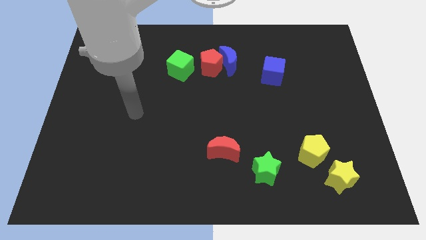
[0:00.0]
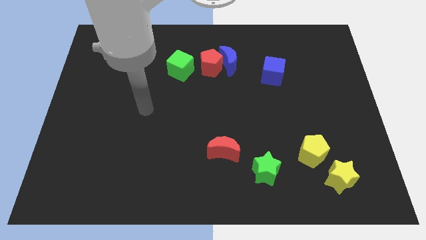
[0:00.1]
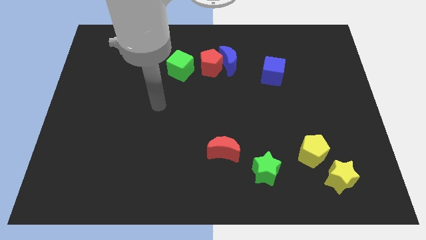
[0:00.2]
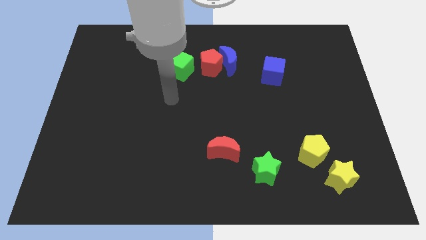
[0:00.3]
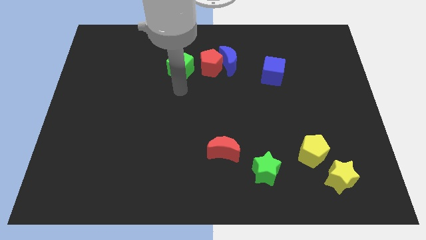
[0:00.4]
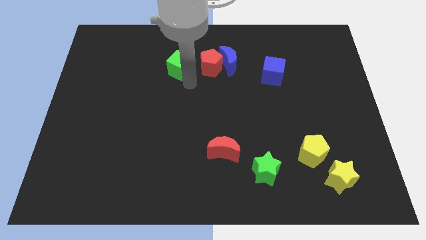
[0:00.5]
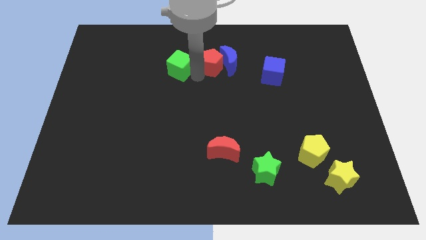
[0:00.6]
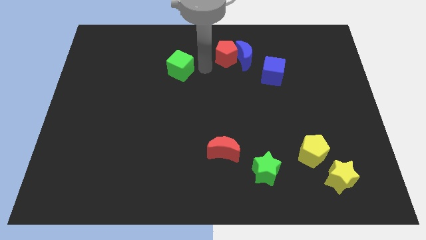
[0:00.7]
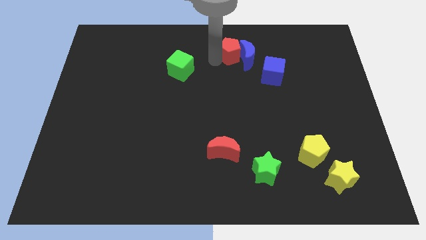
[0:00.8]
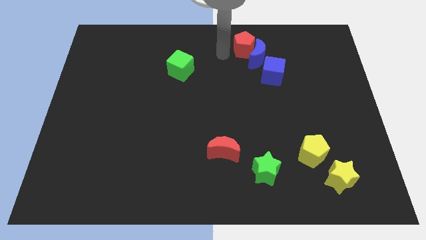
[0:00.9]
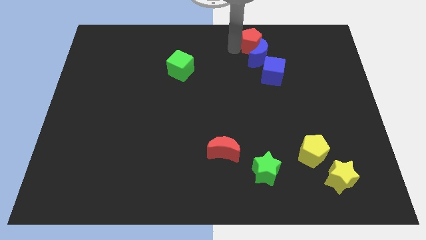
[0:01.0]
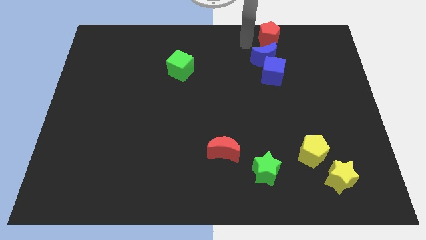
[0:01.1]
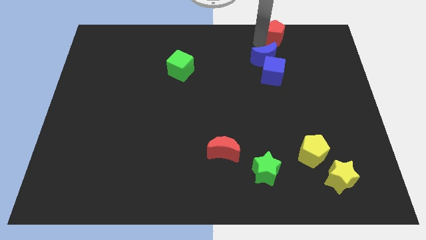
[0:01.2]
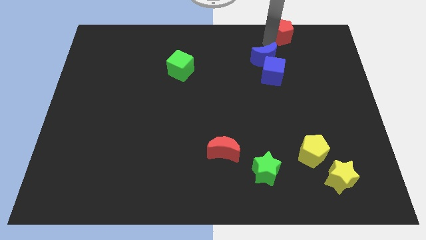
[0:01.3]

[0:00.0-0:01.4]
pull the blue moon apart from the red pentagon

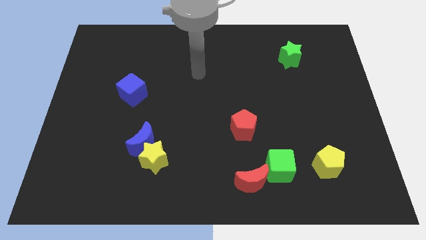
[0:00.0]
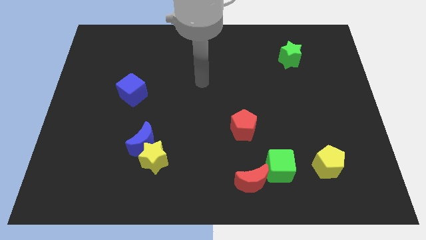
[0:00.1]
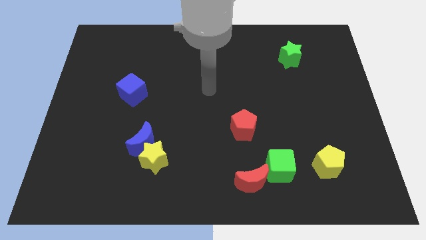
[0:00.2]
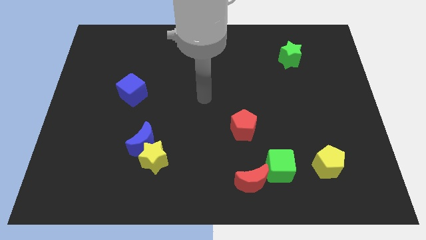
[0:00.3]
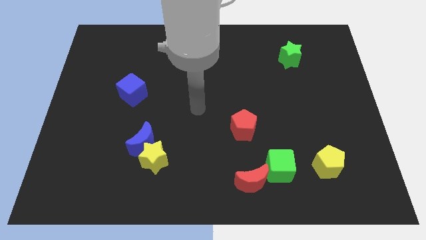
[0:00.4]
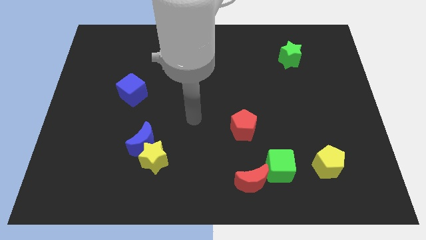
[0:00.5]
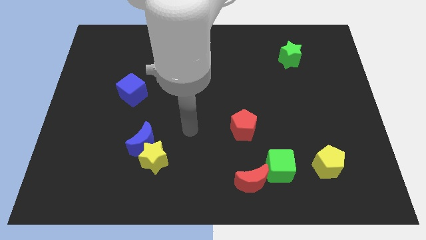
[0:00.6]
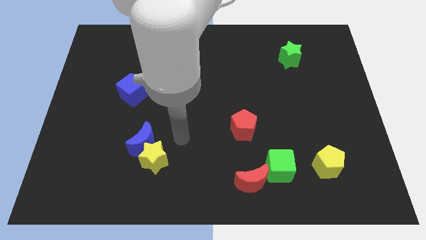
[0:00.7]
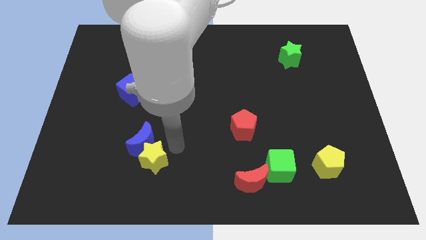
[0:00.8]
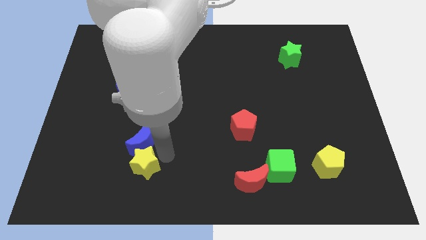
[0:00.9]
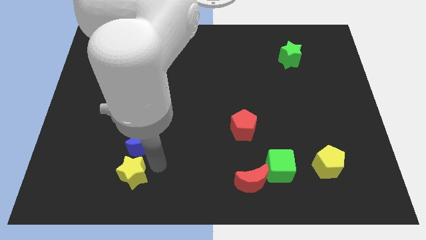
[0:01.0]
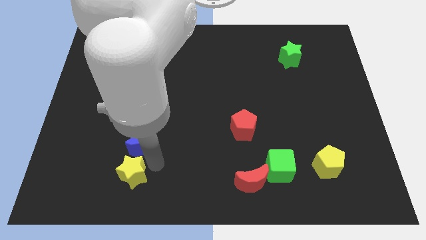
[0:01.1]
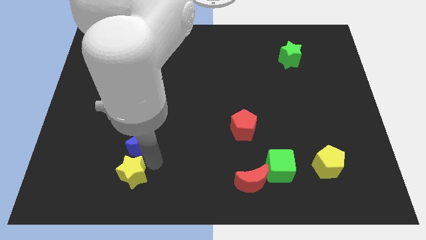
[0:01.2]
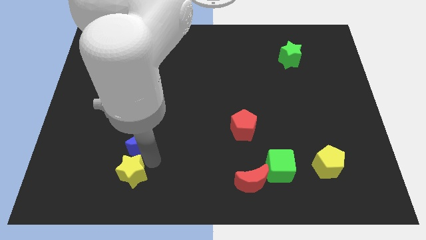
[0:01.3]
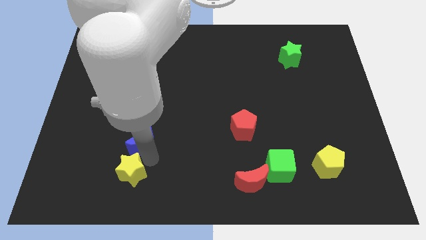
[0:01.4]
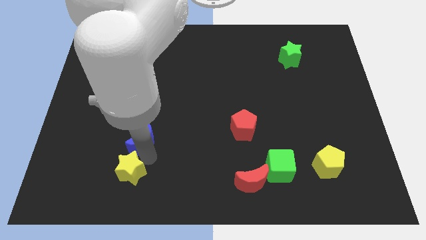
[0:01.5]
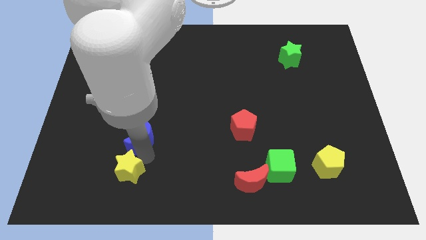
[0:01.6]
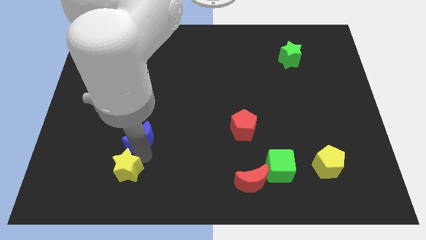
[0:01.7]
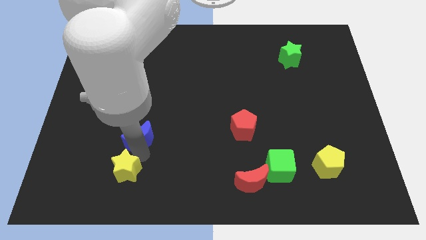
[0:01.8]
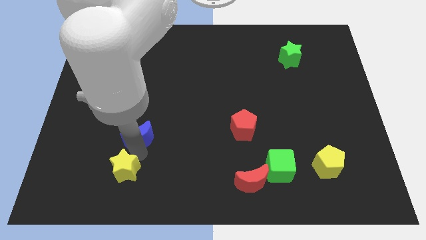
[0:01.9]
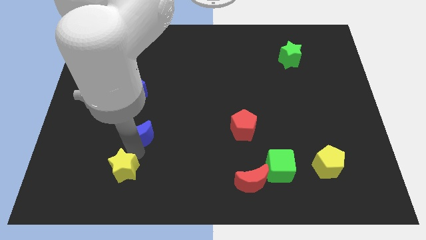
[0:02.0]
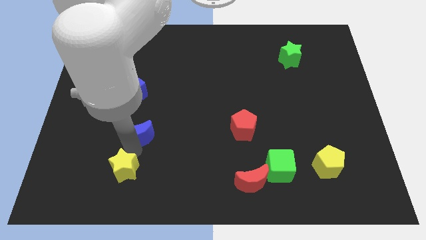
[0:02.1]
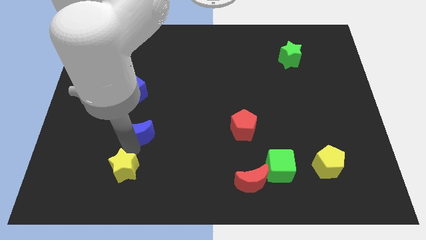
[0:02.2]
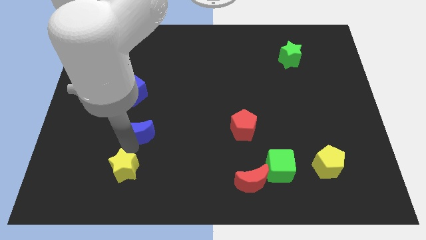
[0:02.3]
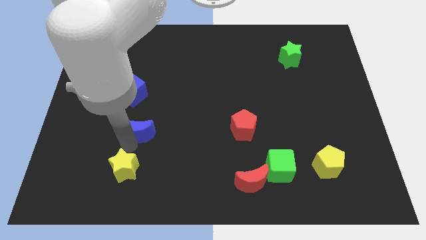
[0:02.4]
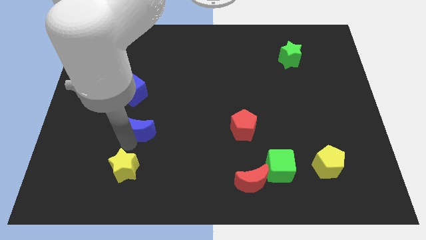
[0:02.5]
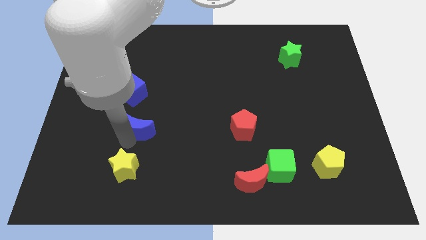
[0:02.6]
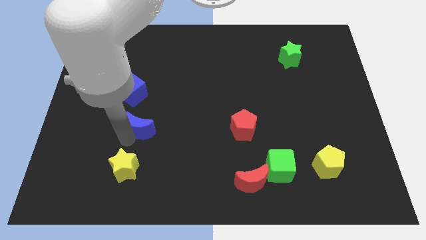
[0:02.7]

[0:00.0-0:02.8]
separate the blue moon from the yellow star

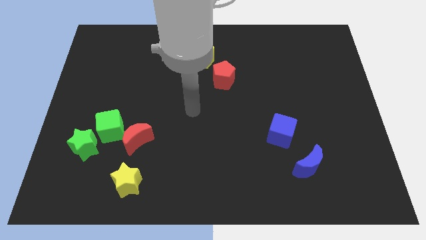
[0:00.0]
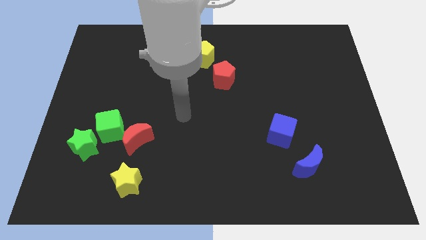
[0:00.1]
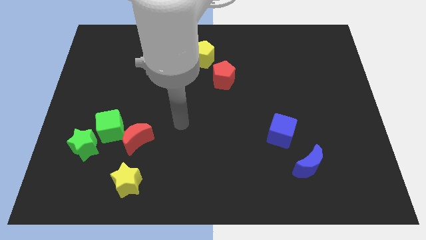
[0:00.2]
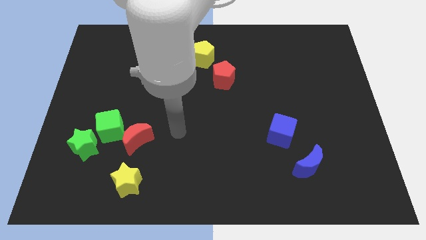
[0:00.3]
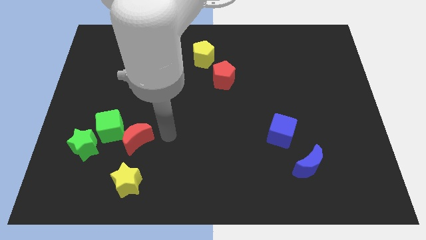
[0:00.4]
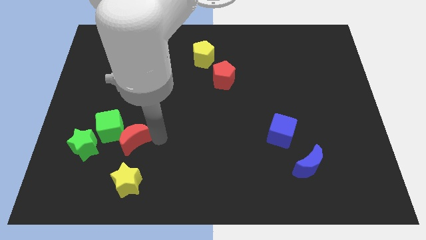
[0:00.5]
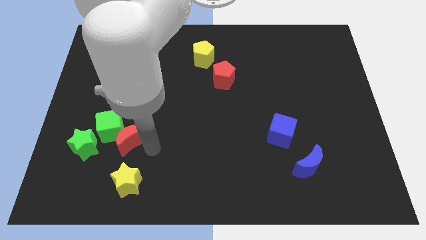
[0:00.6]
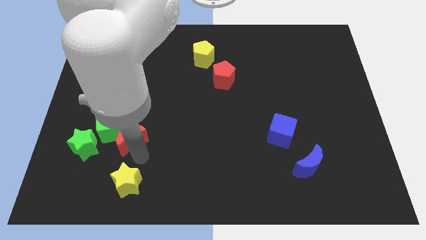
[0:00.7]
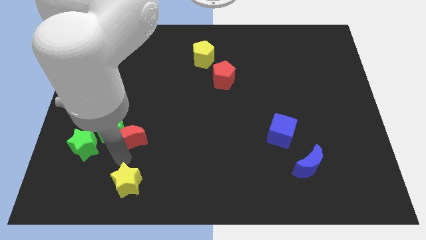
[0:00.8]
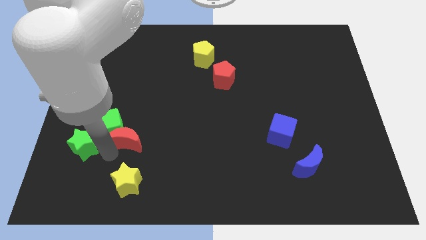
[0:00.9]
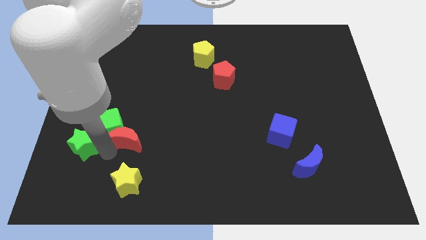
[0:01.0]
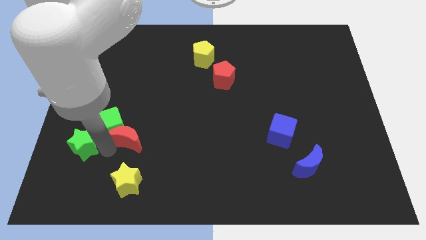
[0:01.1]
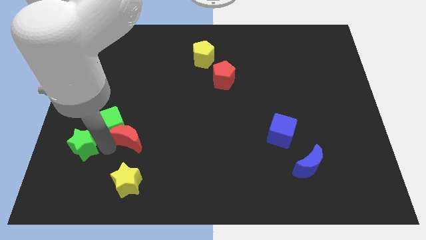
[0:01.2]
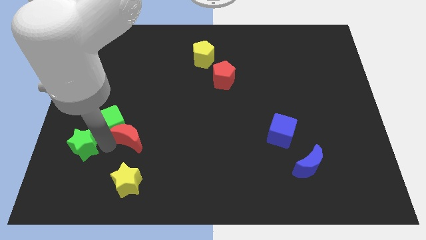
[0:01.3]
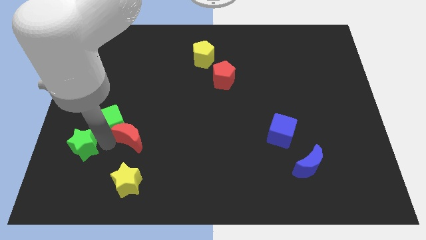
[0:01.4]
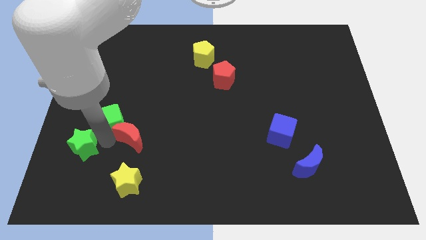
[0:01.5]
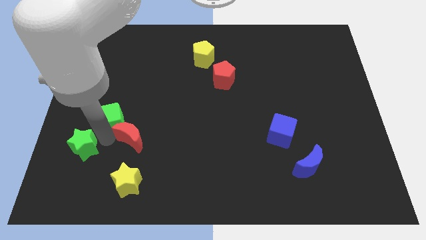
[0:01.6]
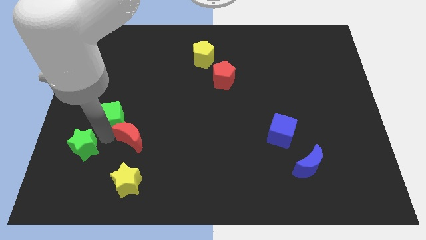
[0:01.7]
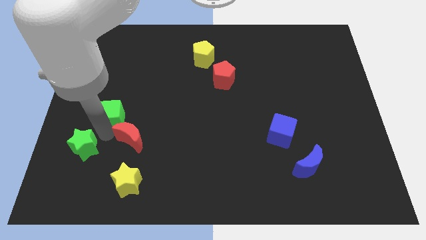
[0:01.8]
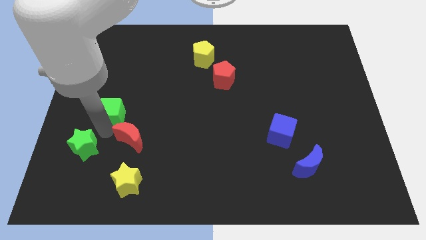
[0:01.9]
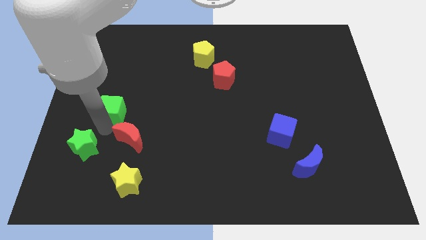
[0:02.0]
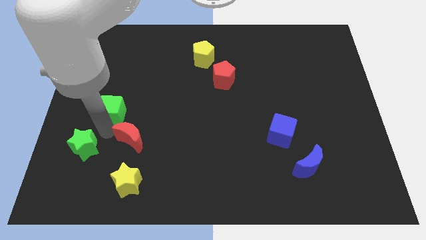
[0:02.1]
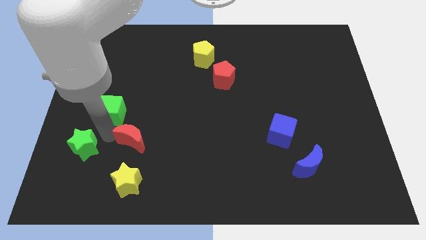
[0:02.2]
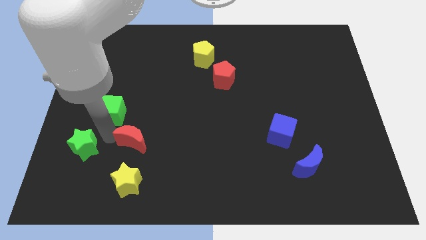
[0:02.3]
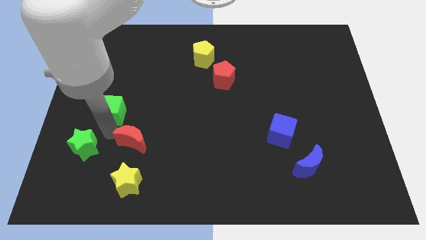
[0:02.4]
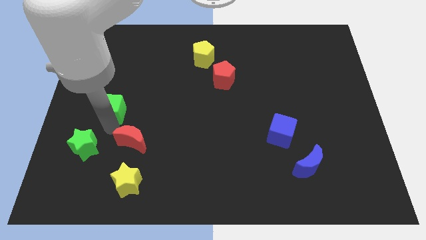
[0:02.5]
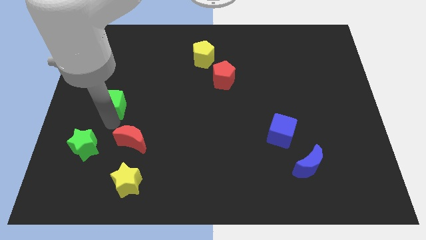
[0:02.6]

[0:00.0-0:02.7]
separate the green cube from the red moon and green star

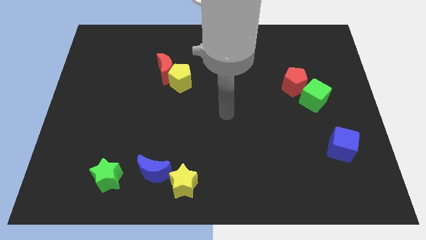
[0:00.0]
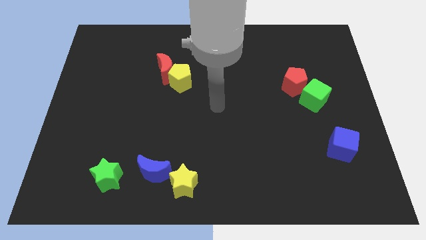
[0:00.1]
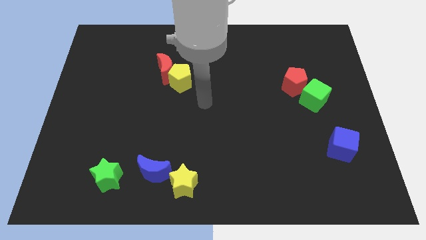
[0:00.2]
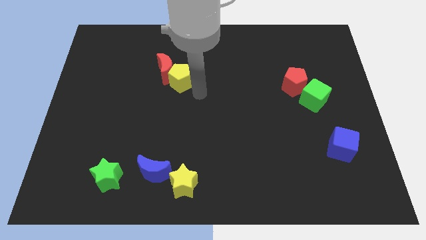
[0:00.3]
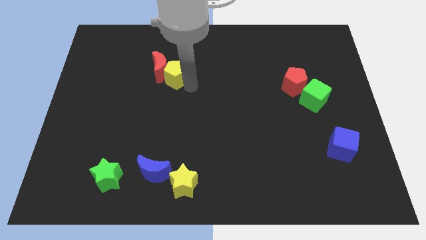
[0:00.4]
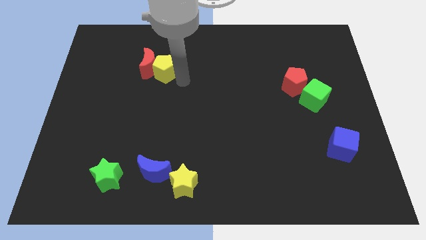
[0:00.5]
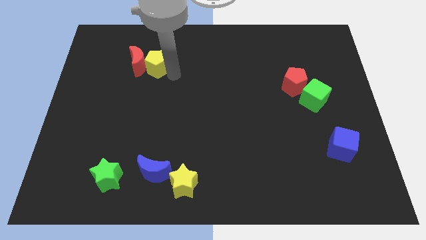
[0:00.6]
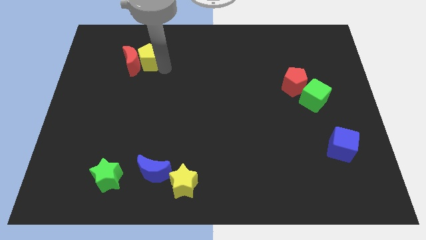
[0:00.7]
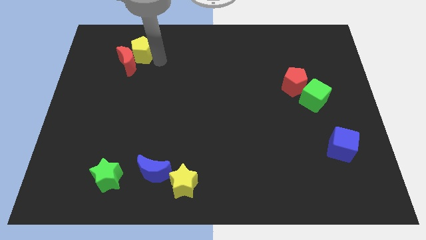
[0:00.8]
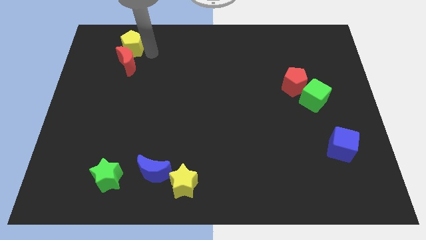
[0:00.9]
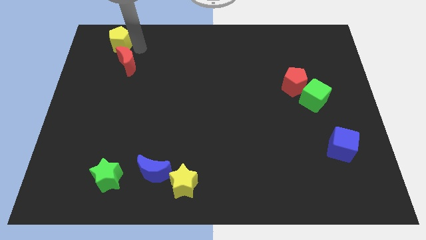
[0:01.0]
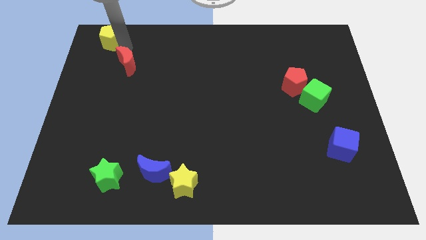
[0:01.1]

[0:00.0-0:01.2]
pull the red moon apart from the yellow pentagon

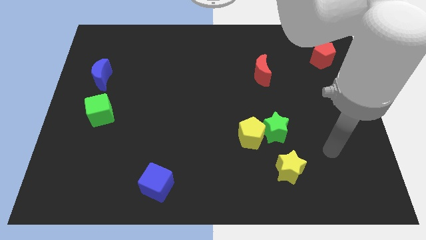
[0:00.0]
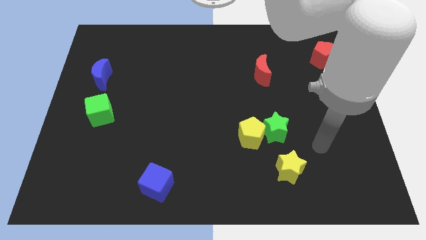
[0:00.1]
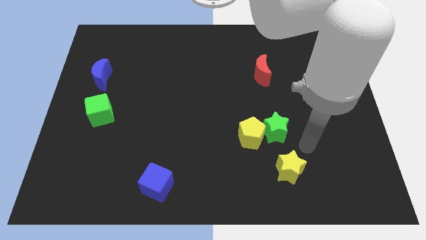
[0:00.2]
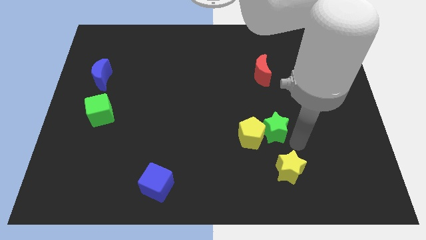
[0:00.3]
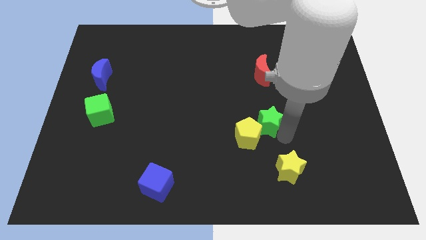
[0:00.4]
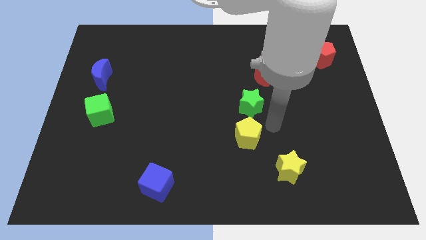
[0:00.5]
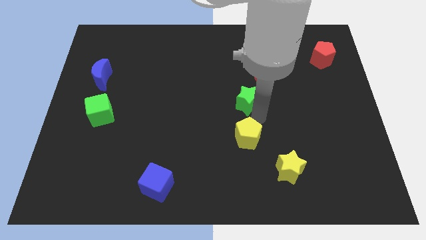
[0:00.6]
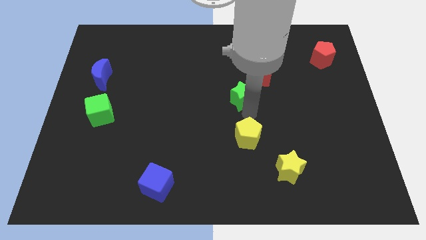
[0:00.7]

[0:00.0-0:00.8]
move the yellow pentagon away from the green star

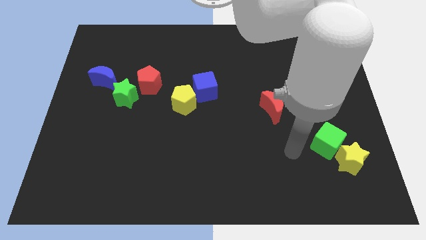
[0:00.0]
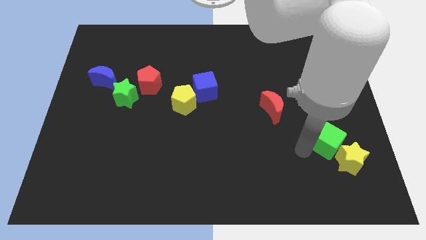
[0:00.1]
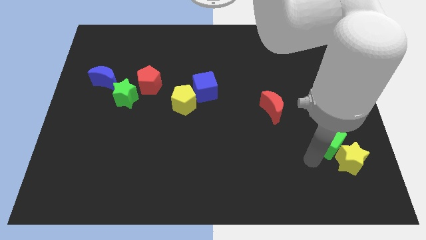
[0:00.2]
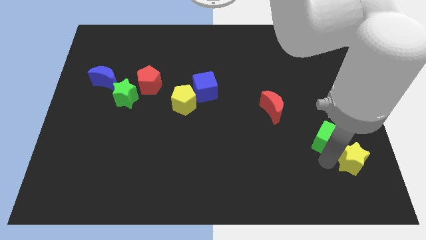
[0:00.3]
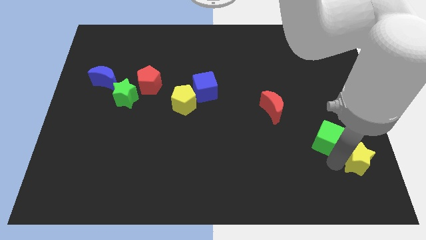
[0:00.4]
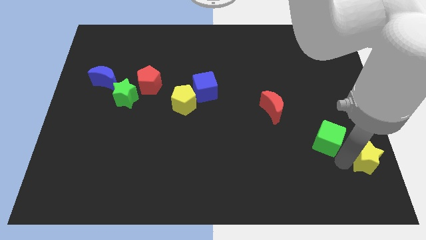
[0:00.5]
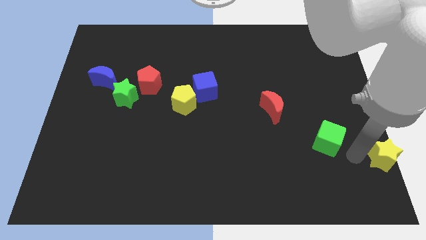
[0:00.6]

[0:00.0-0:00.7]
separate the green cube from the yellow star
